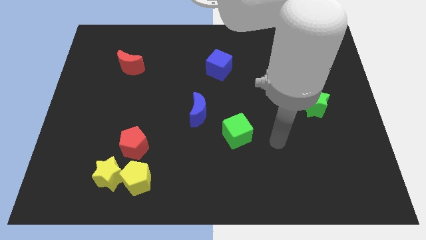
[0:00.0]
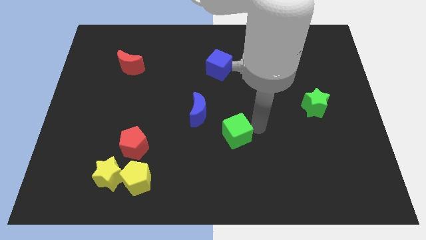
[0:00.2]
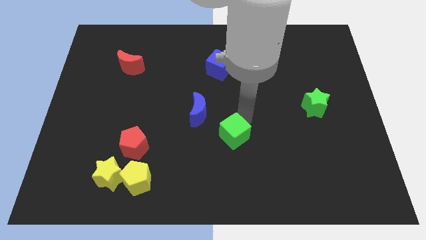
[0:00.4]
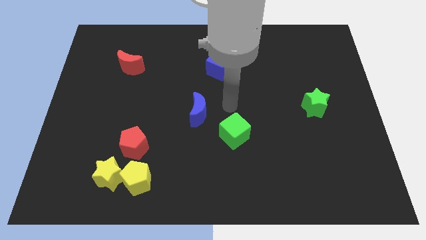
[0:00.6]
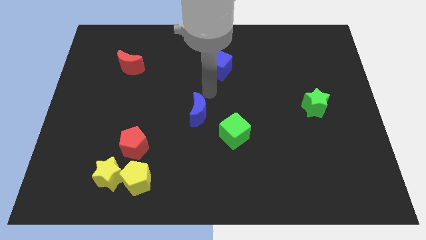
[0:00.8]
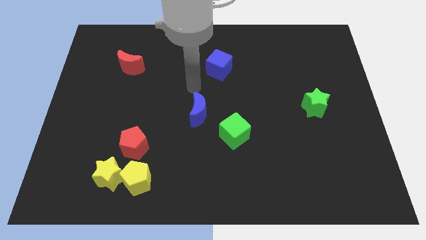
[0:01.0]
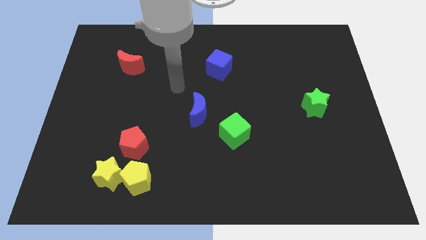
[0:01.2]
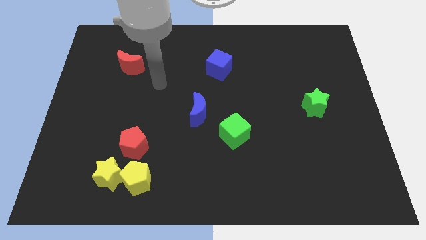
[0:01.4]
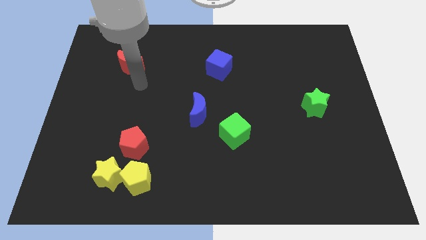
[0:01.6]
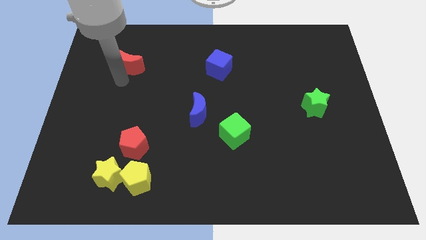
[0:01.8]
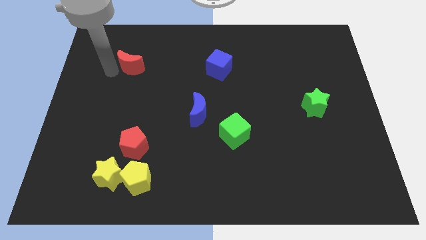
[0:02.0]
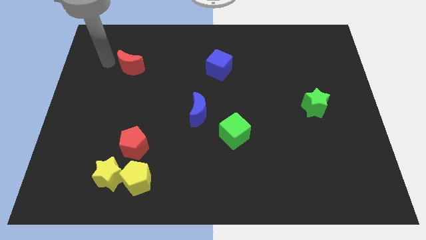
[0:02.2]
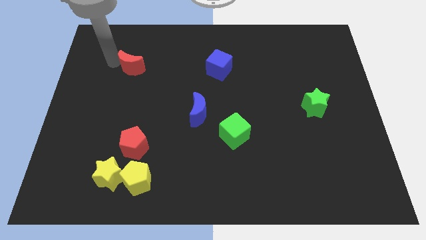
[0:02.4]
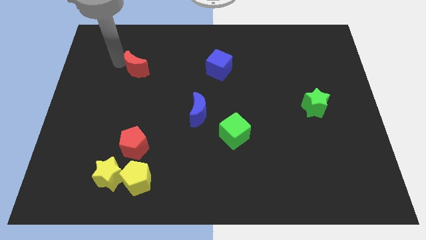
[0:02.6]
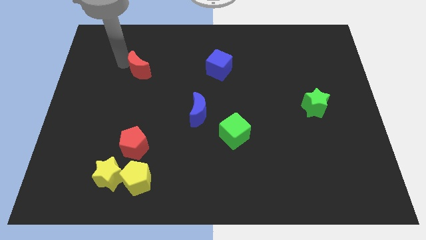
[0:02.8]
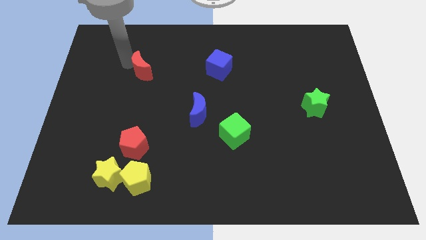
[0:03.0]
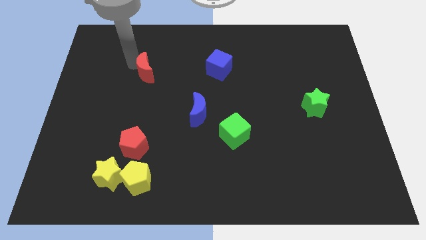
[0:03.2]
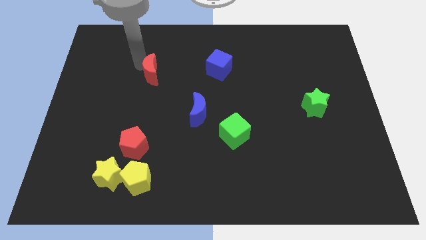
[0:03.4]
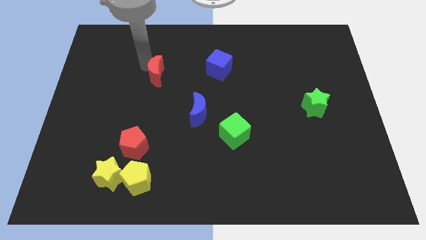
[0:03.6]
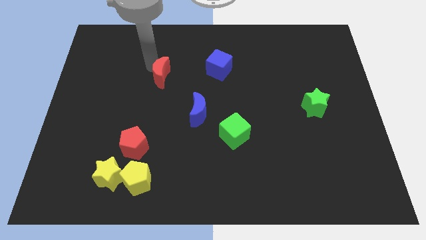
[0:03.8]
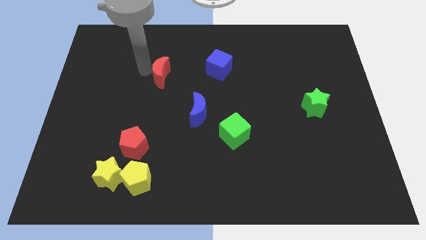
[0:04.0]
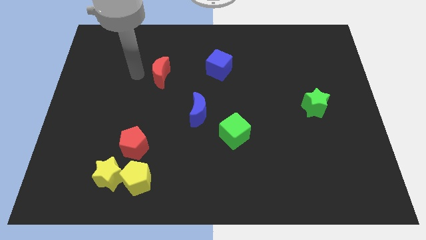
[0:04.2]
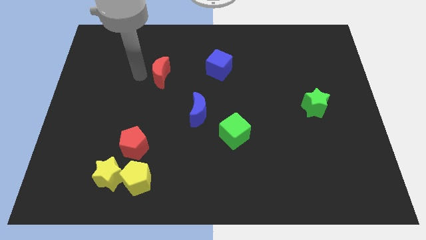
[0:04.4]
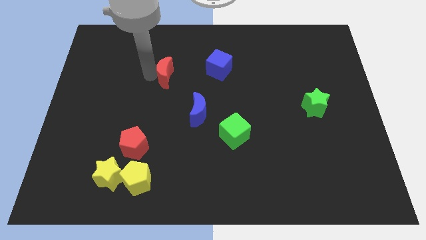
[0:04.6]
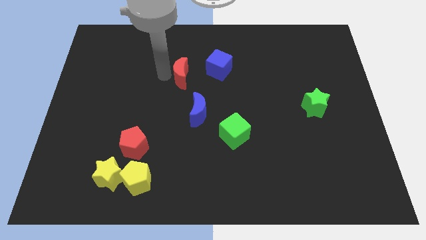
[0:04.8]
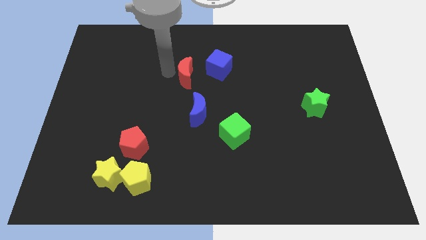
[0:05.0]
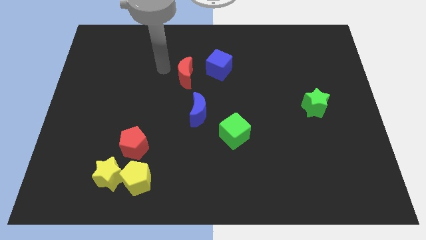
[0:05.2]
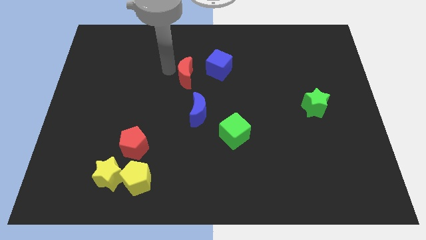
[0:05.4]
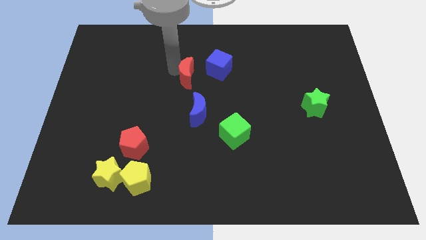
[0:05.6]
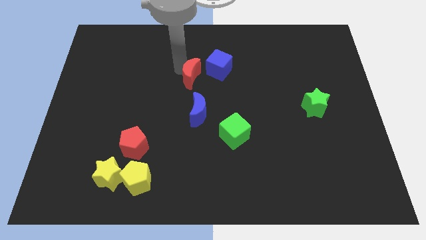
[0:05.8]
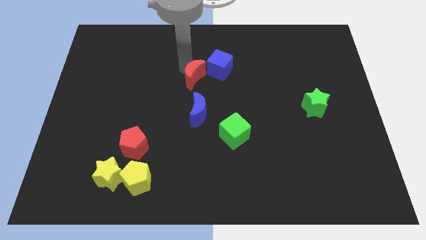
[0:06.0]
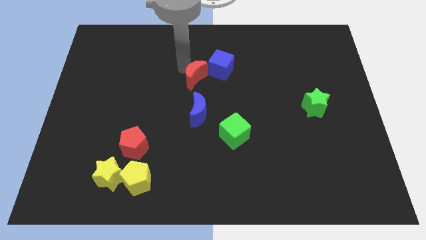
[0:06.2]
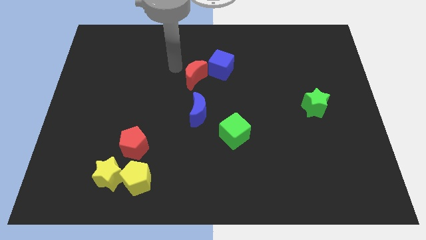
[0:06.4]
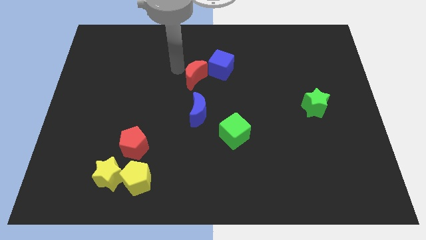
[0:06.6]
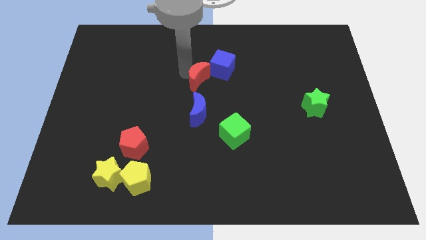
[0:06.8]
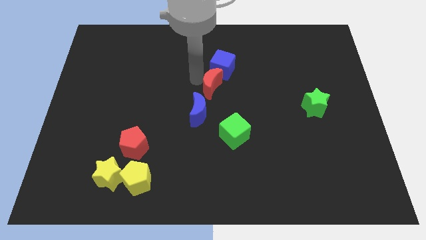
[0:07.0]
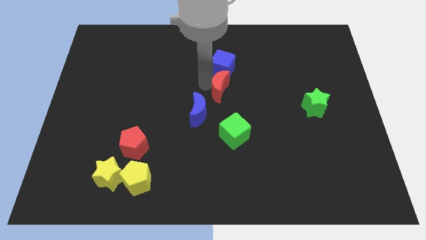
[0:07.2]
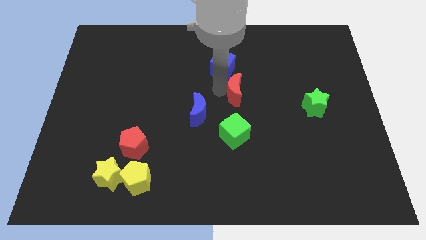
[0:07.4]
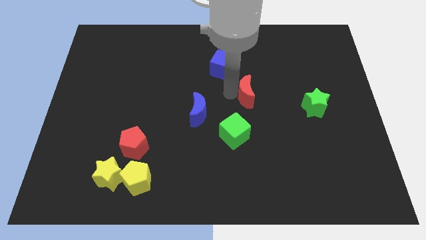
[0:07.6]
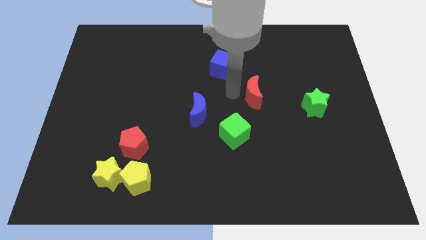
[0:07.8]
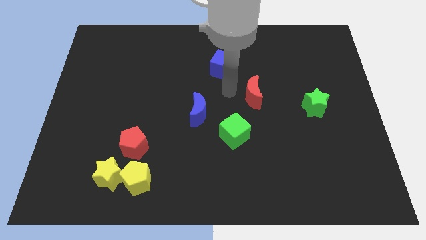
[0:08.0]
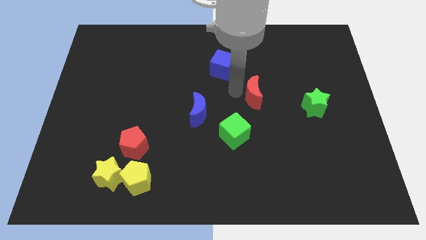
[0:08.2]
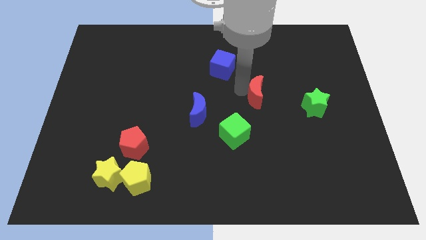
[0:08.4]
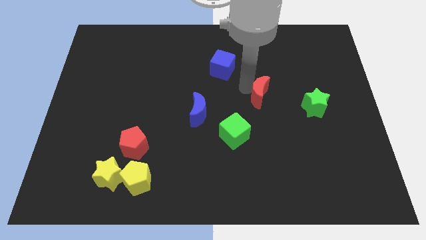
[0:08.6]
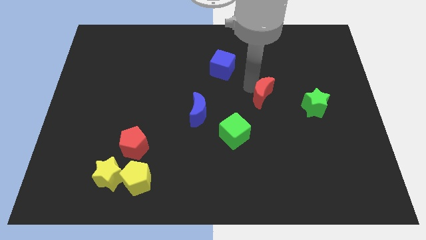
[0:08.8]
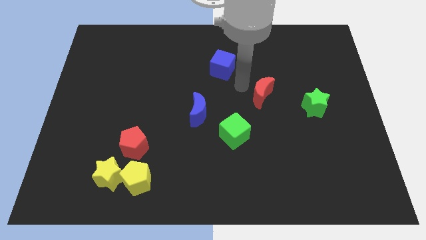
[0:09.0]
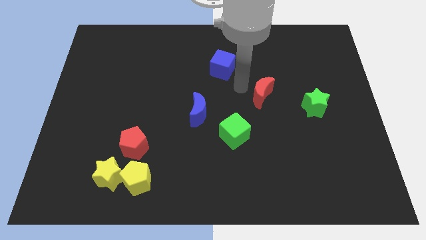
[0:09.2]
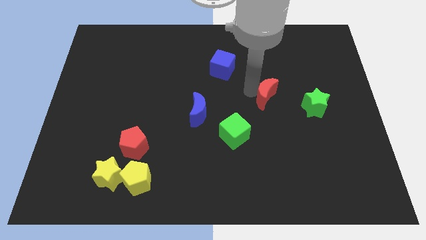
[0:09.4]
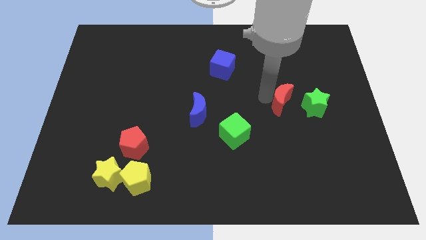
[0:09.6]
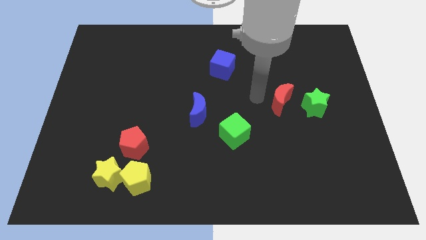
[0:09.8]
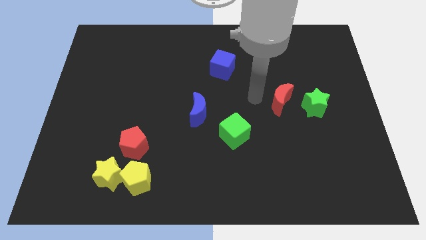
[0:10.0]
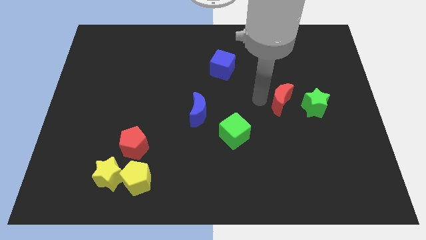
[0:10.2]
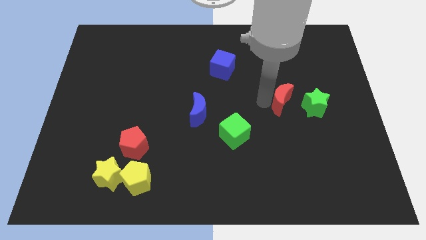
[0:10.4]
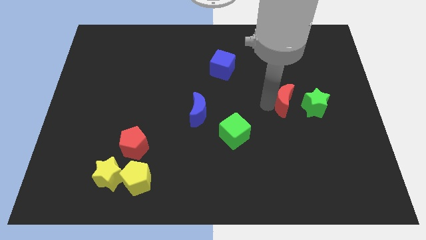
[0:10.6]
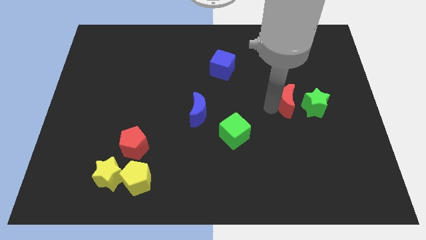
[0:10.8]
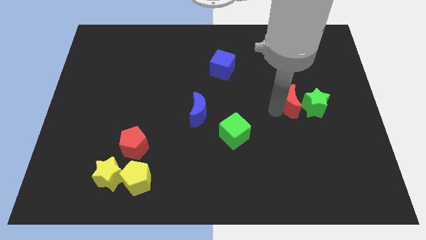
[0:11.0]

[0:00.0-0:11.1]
push the red moon next to the green star

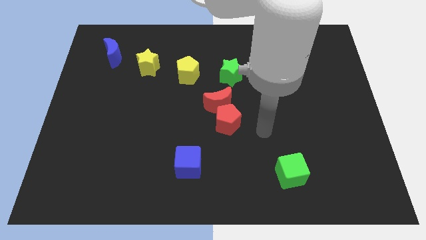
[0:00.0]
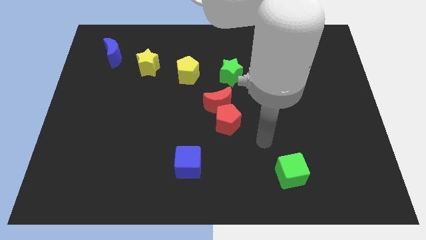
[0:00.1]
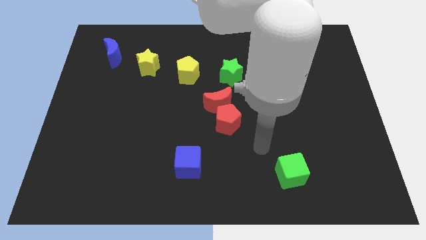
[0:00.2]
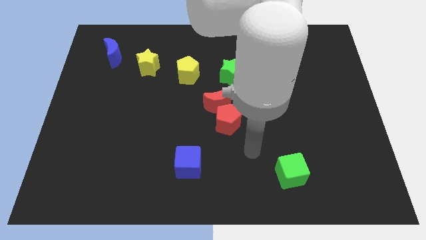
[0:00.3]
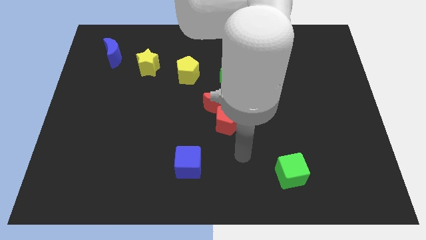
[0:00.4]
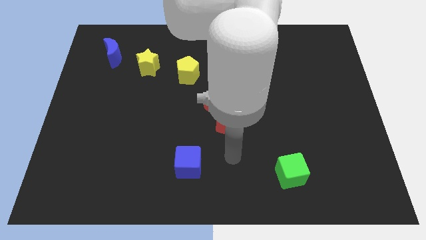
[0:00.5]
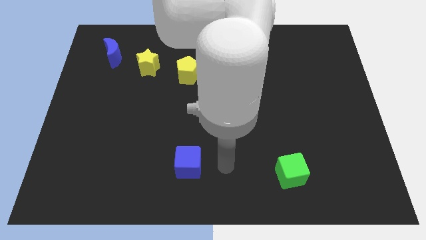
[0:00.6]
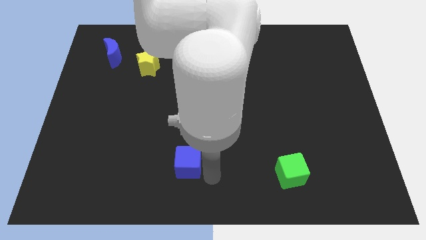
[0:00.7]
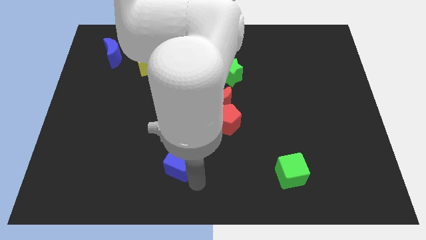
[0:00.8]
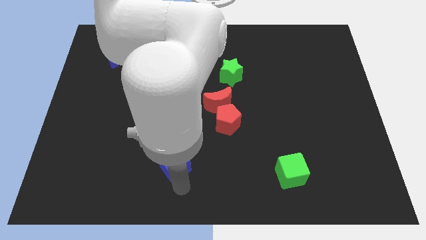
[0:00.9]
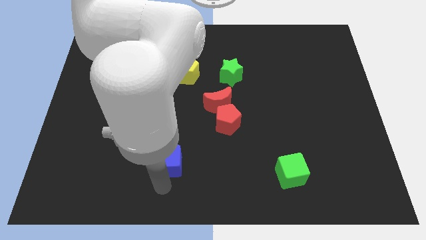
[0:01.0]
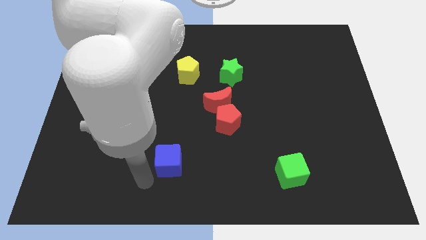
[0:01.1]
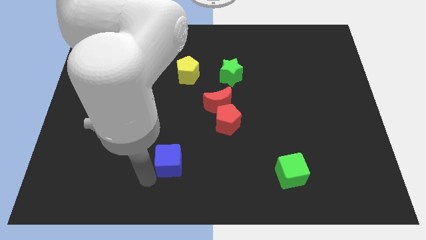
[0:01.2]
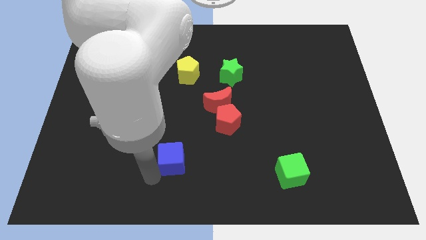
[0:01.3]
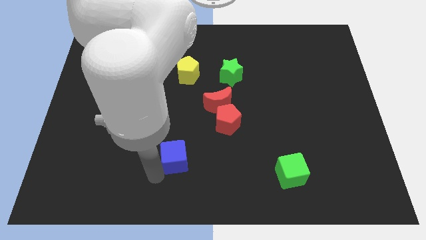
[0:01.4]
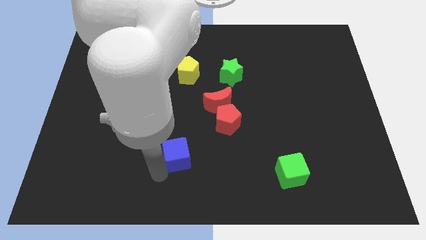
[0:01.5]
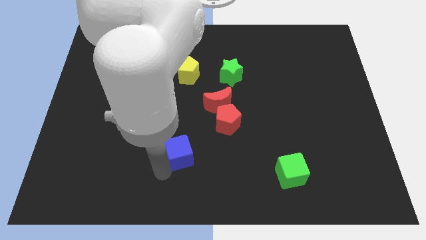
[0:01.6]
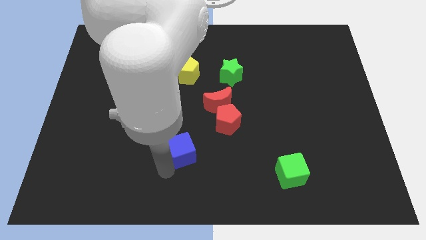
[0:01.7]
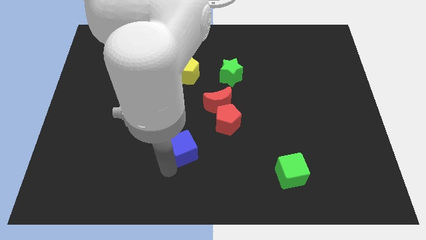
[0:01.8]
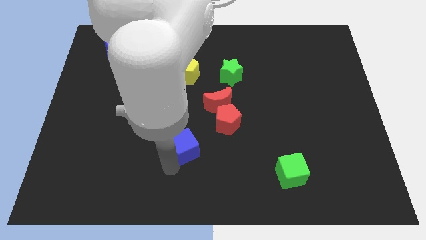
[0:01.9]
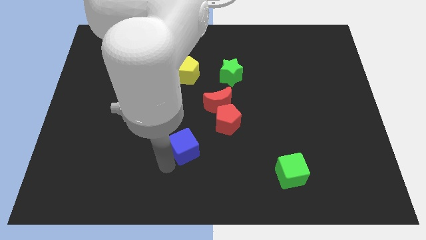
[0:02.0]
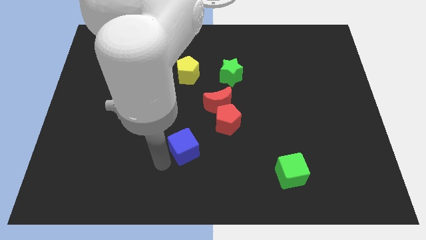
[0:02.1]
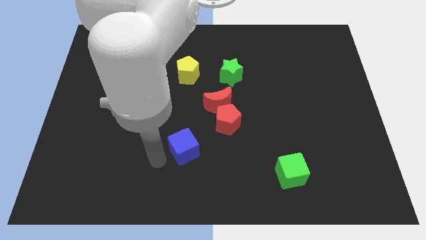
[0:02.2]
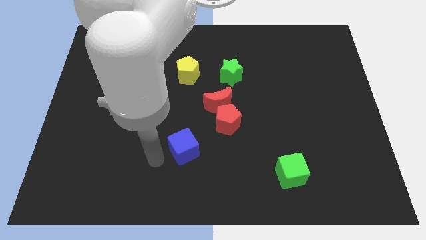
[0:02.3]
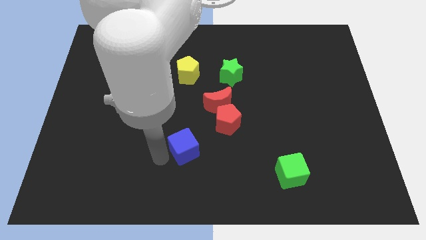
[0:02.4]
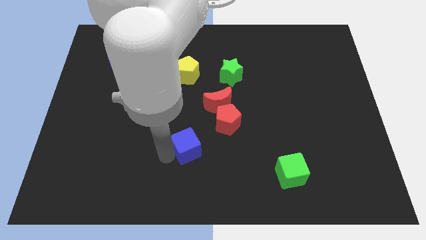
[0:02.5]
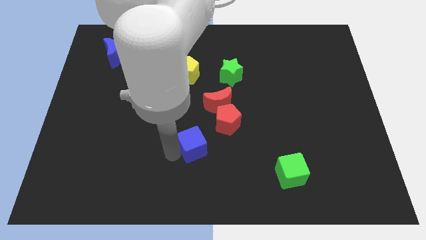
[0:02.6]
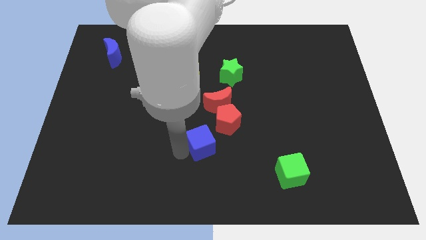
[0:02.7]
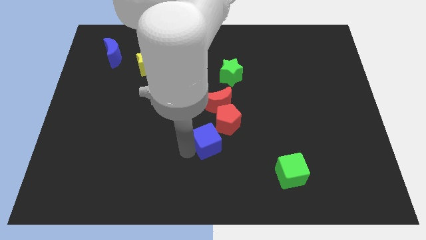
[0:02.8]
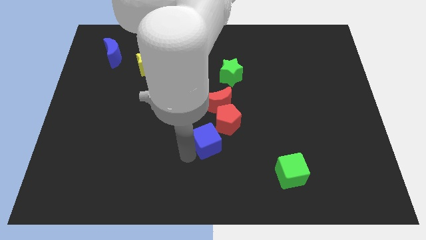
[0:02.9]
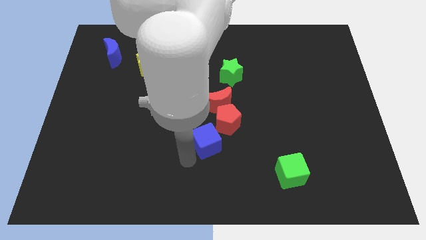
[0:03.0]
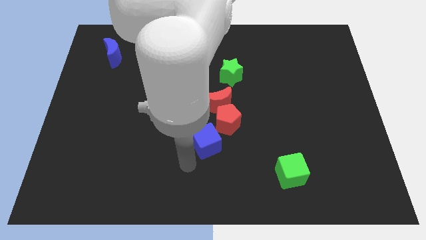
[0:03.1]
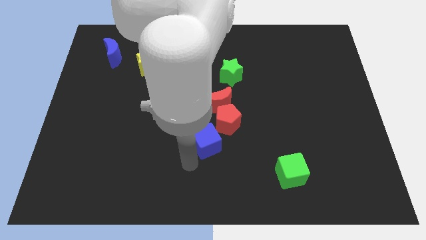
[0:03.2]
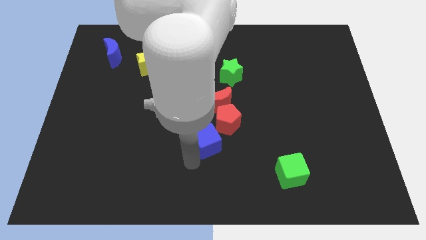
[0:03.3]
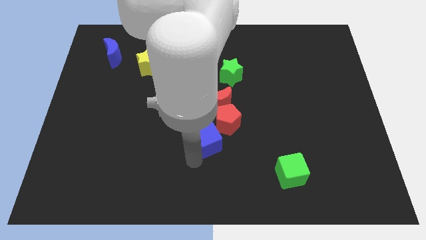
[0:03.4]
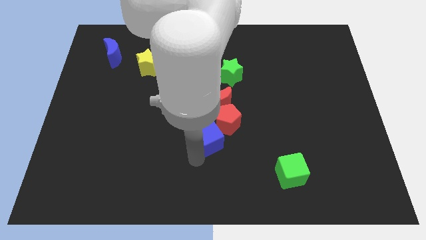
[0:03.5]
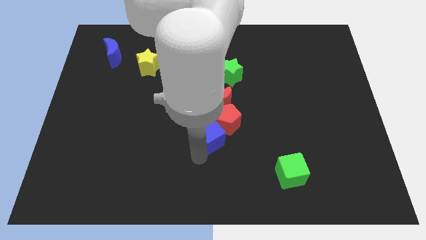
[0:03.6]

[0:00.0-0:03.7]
slide the blue cube towards the red pentagon
